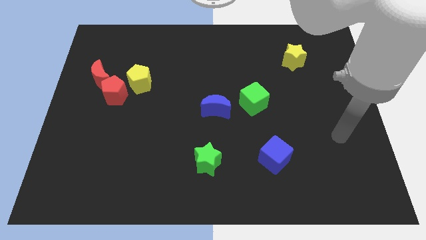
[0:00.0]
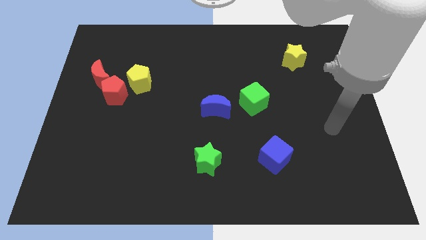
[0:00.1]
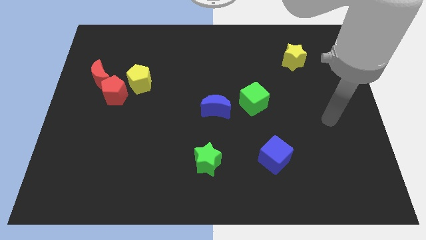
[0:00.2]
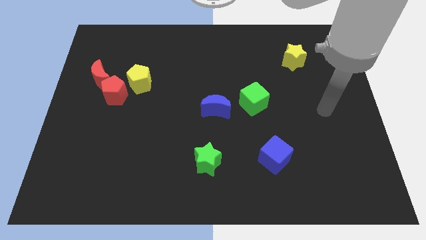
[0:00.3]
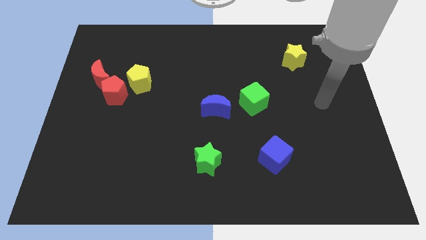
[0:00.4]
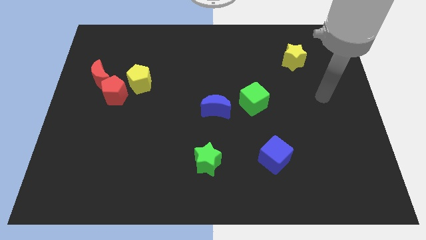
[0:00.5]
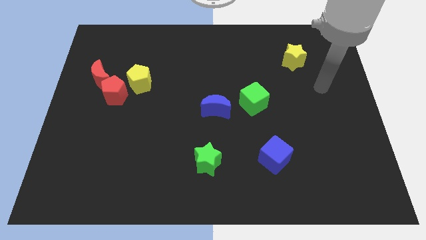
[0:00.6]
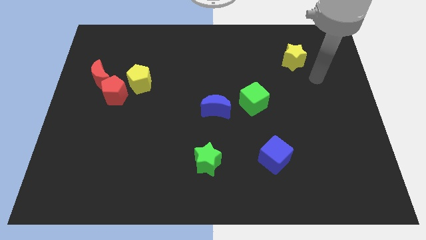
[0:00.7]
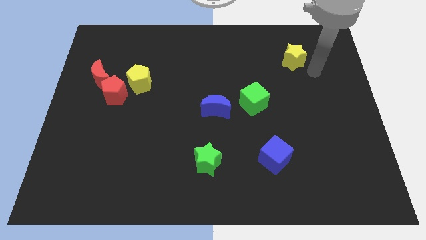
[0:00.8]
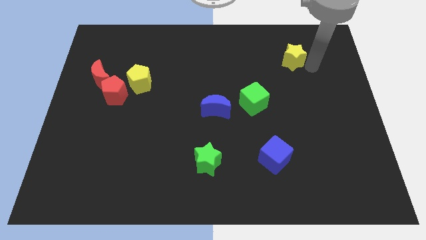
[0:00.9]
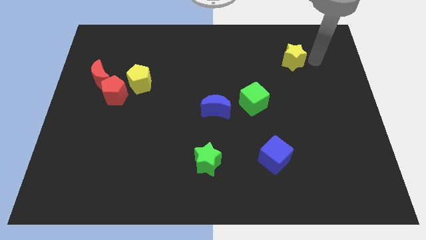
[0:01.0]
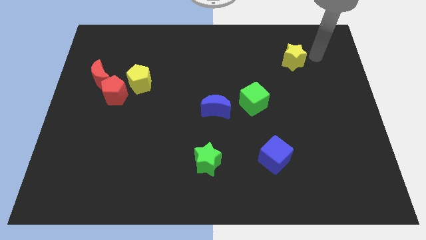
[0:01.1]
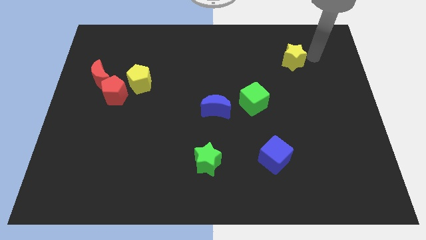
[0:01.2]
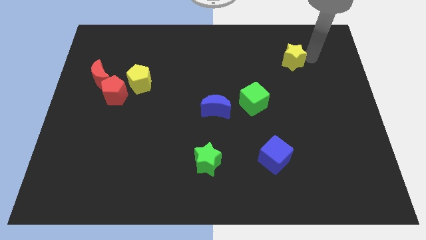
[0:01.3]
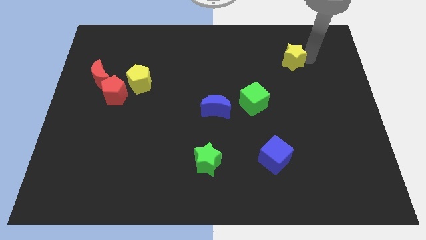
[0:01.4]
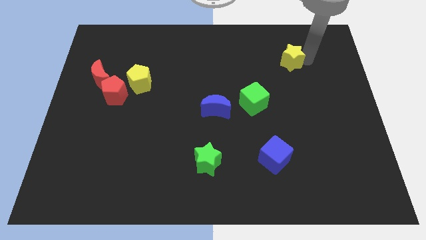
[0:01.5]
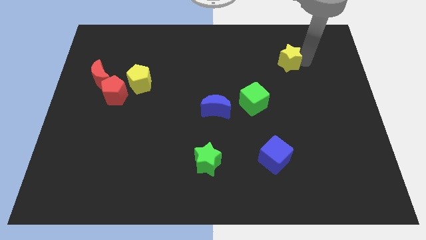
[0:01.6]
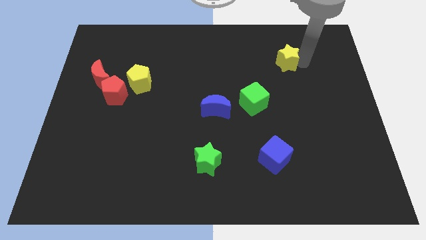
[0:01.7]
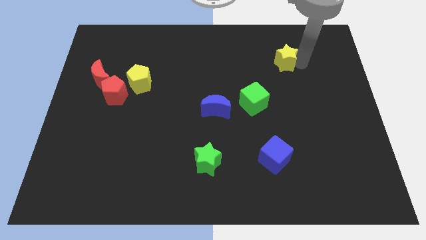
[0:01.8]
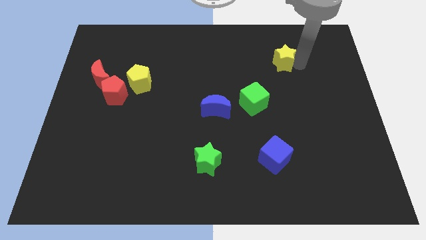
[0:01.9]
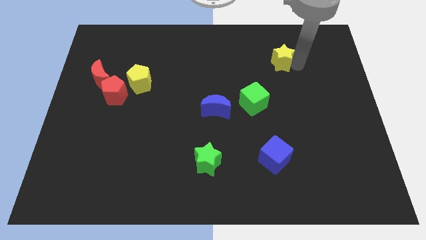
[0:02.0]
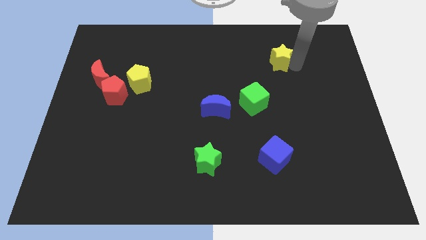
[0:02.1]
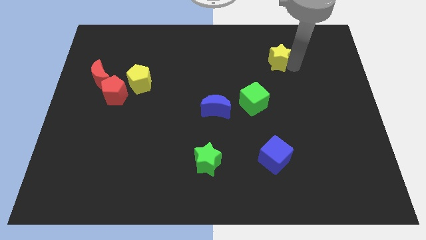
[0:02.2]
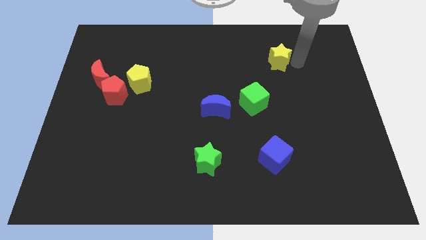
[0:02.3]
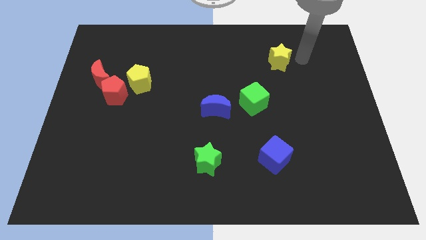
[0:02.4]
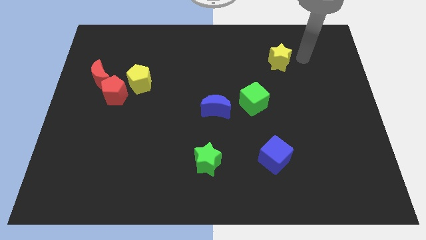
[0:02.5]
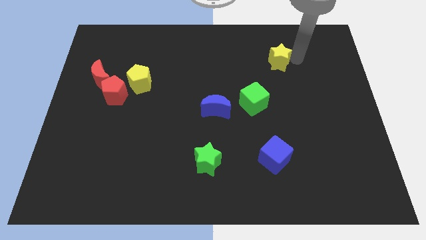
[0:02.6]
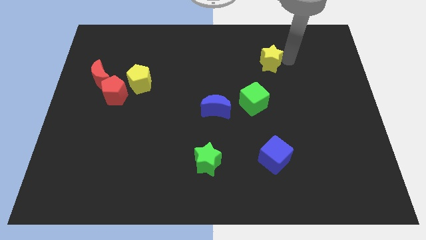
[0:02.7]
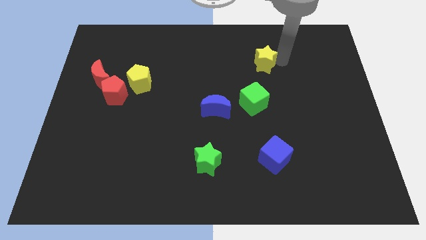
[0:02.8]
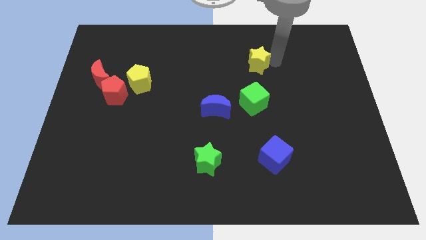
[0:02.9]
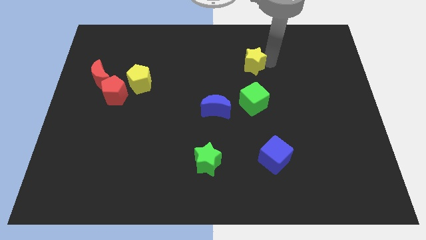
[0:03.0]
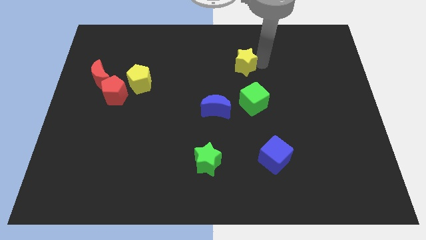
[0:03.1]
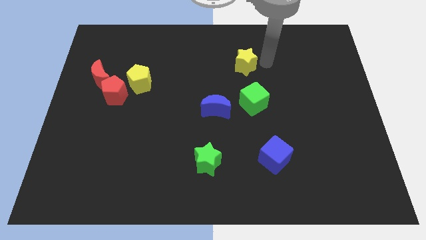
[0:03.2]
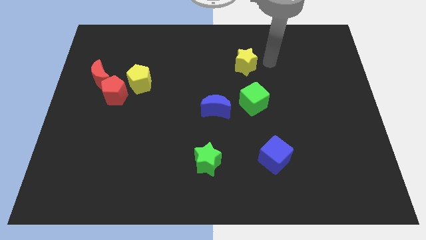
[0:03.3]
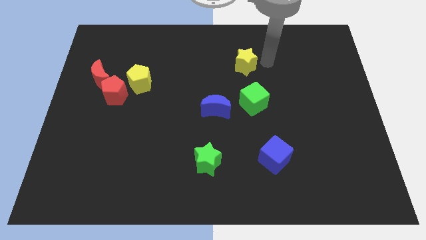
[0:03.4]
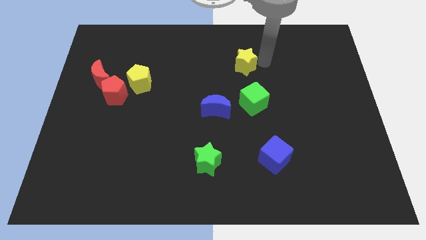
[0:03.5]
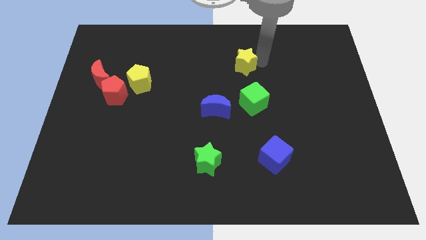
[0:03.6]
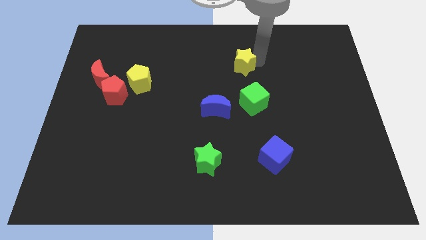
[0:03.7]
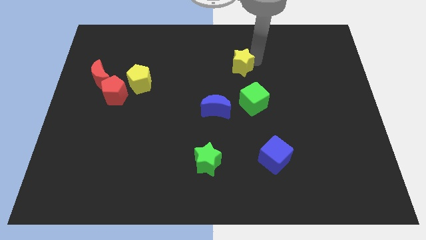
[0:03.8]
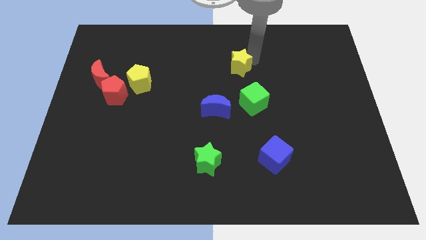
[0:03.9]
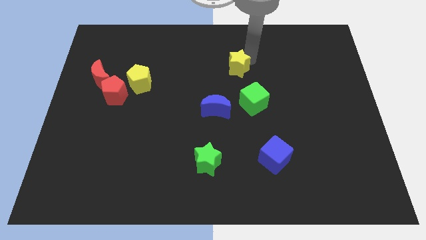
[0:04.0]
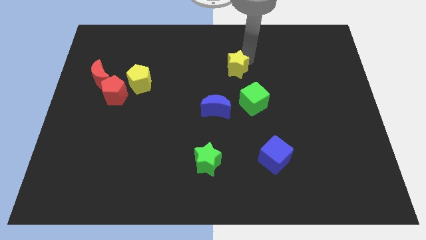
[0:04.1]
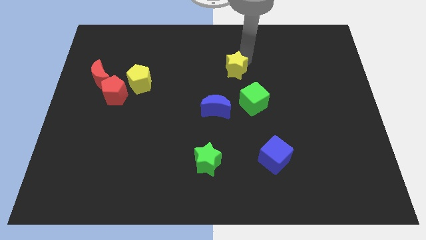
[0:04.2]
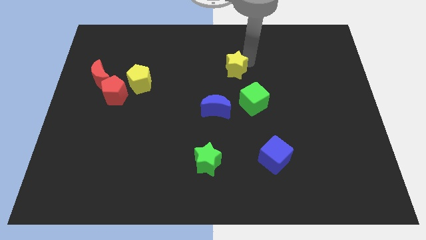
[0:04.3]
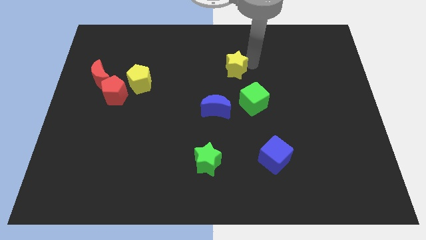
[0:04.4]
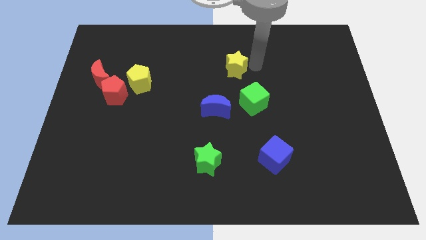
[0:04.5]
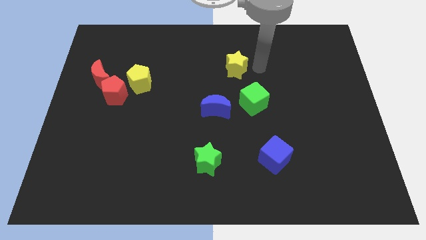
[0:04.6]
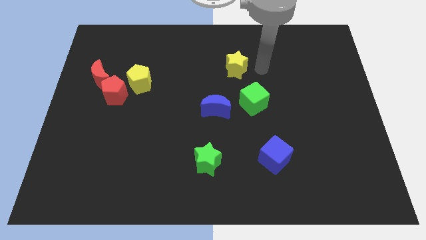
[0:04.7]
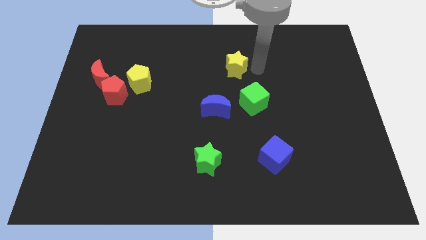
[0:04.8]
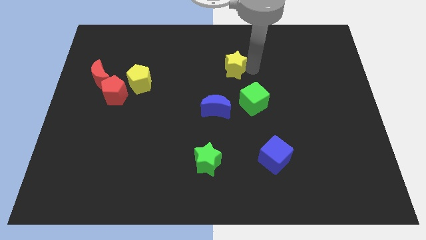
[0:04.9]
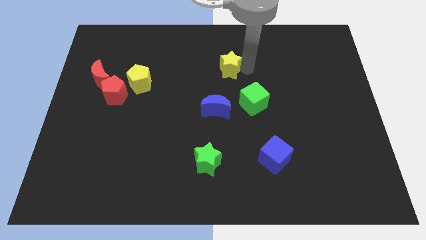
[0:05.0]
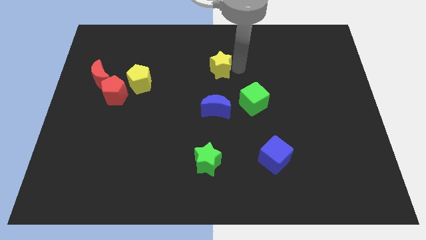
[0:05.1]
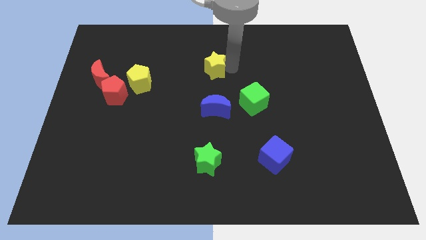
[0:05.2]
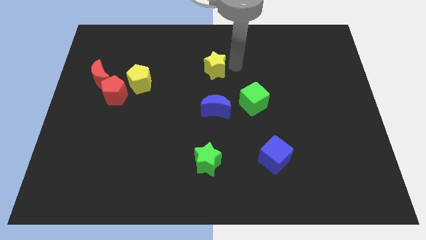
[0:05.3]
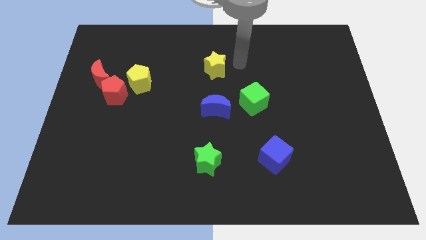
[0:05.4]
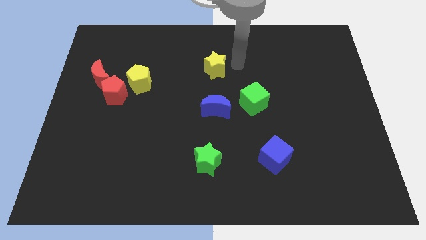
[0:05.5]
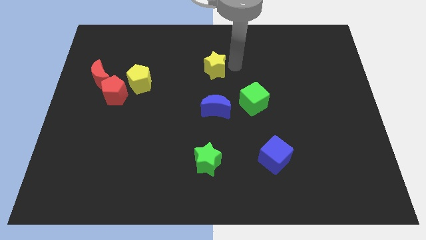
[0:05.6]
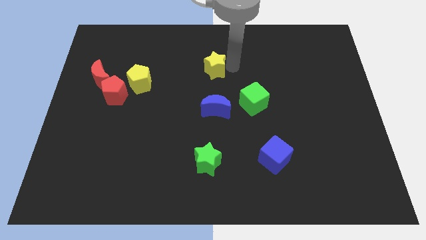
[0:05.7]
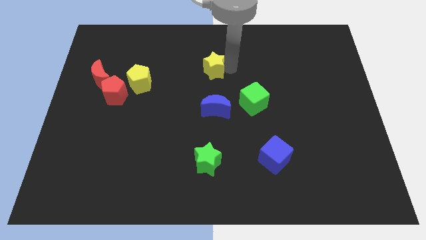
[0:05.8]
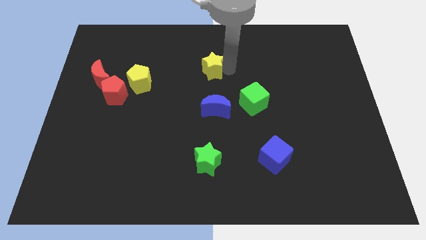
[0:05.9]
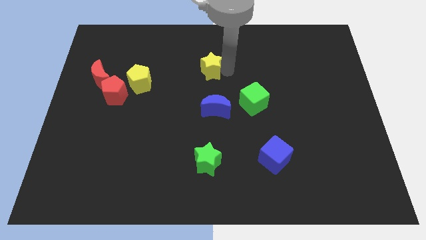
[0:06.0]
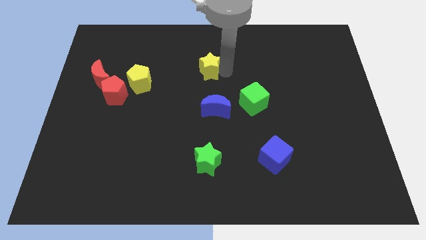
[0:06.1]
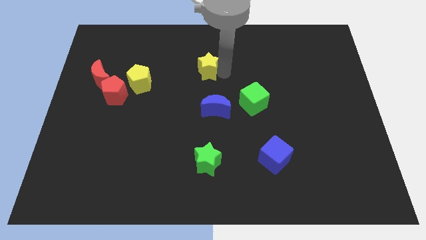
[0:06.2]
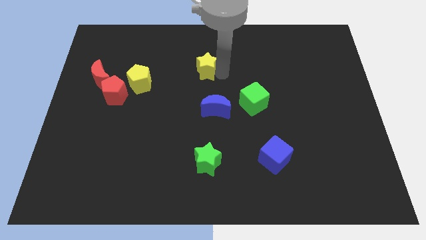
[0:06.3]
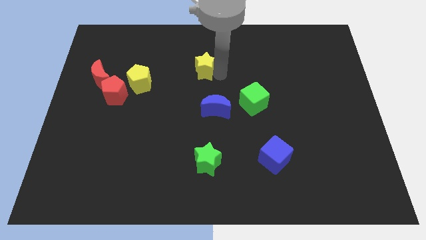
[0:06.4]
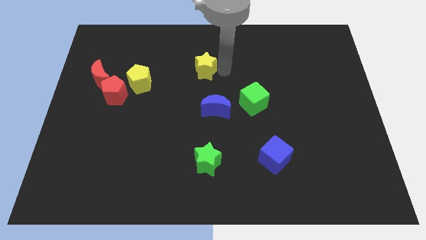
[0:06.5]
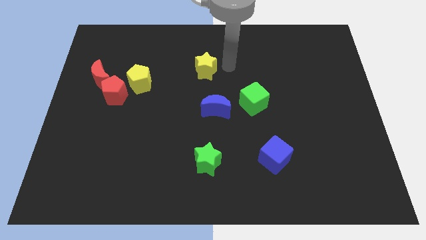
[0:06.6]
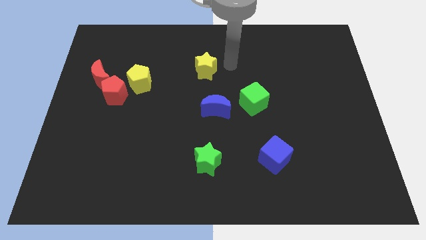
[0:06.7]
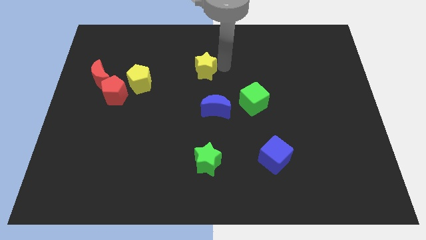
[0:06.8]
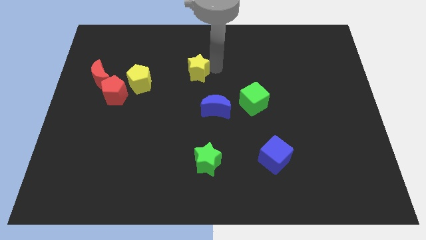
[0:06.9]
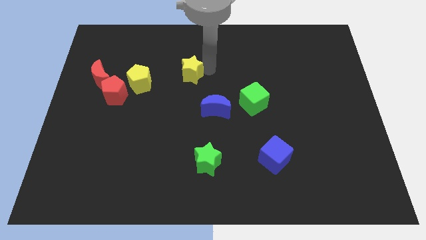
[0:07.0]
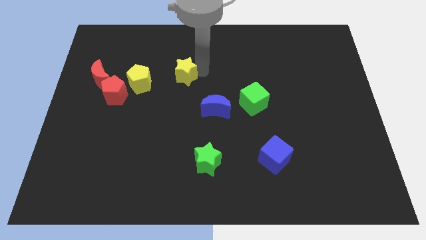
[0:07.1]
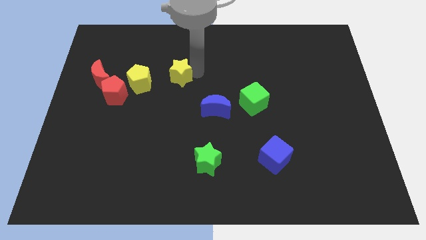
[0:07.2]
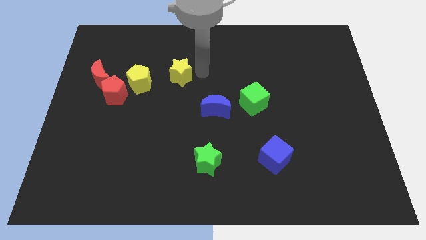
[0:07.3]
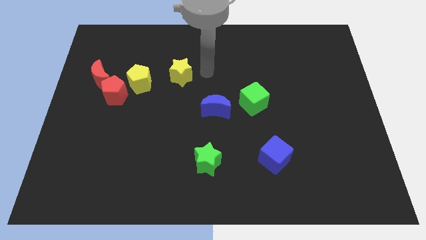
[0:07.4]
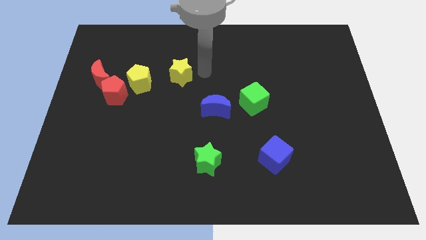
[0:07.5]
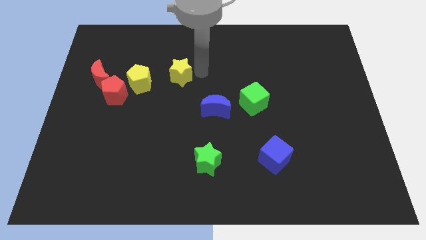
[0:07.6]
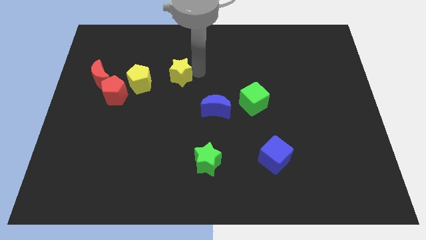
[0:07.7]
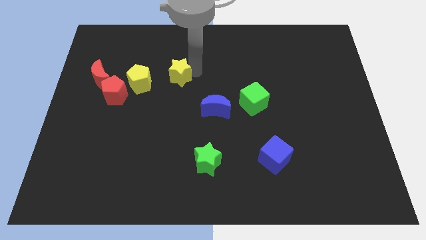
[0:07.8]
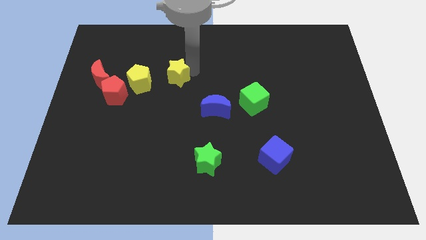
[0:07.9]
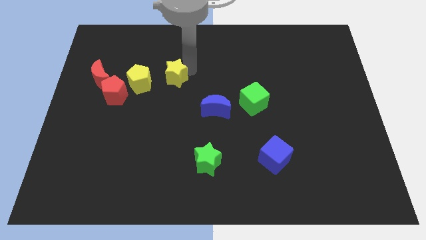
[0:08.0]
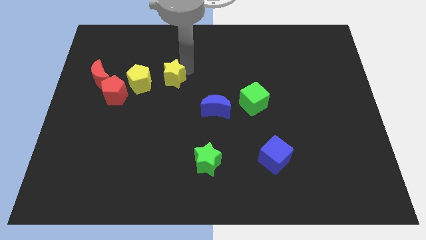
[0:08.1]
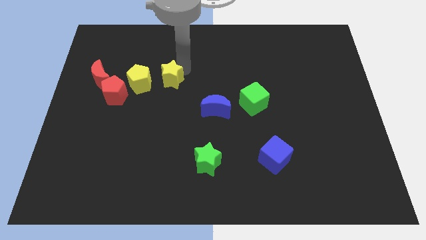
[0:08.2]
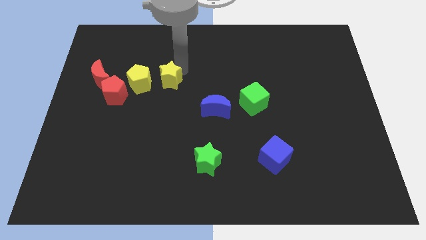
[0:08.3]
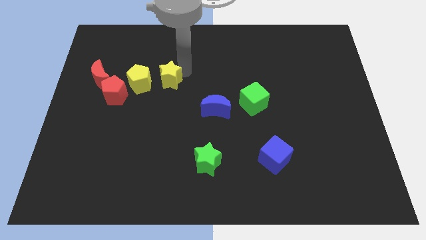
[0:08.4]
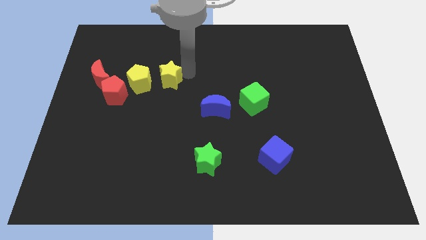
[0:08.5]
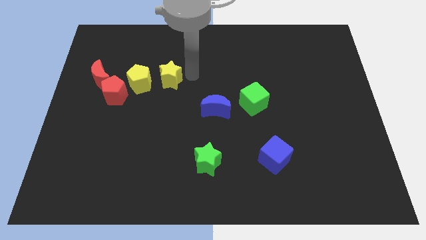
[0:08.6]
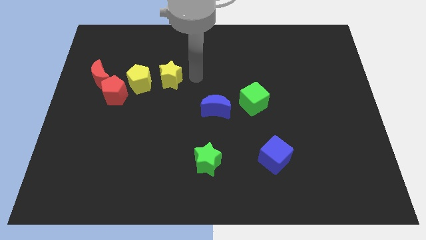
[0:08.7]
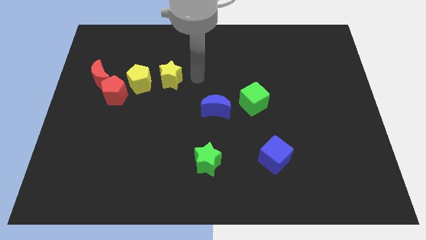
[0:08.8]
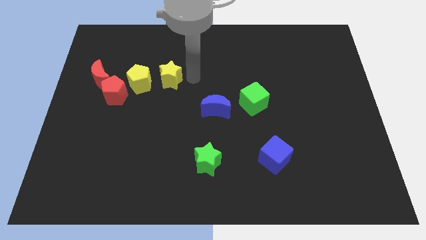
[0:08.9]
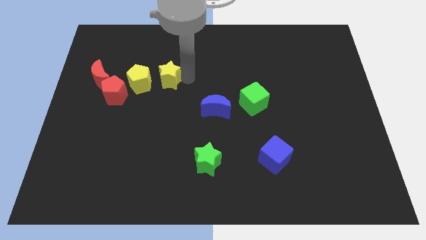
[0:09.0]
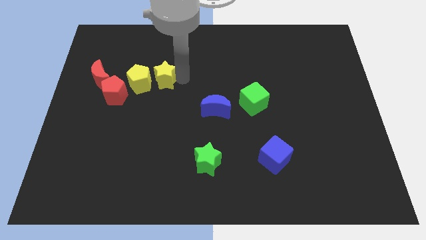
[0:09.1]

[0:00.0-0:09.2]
put the yellow star close to the yellow pentagon
